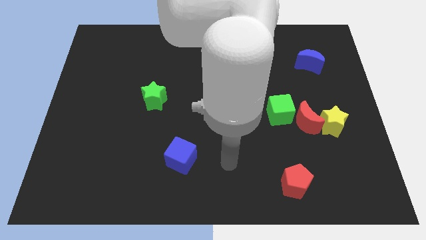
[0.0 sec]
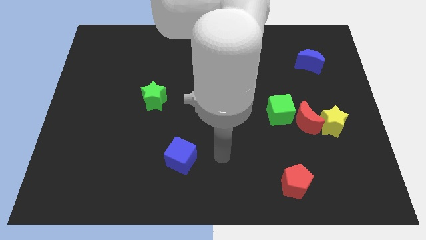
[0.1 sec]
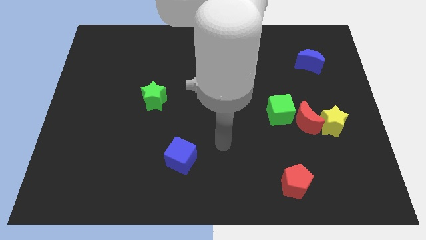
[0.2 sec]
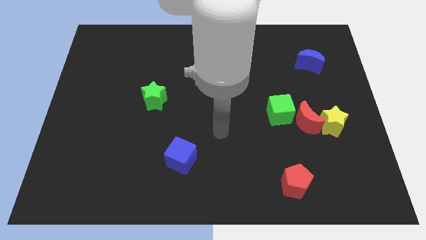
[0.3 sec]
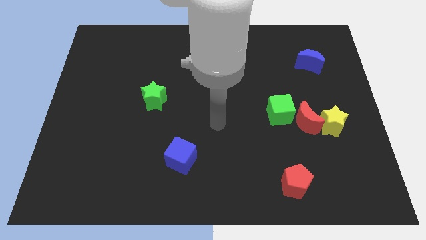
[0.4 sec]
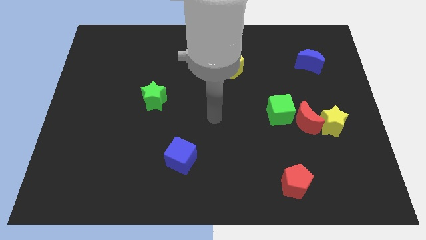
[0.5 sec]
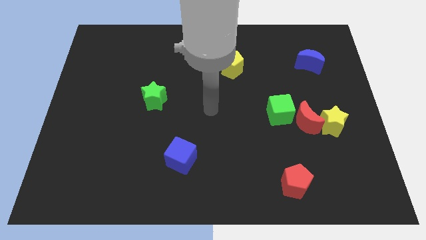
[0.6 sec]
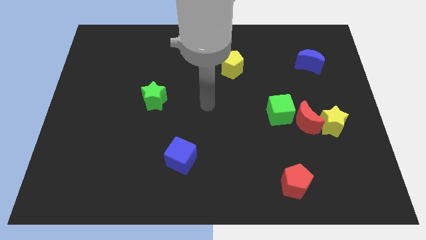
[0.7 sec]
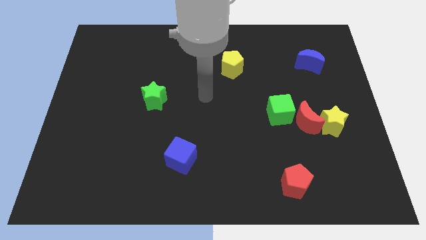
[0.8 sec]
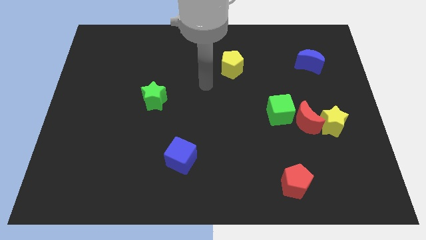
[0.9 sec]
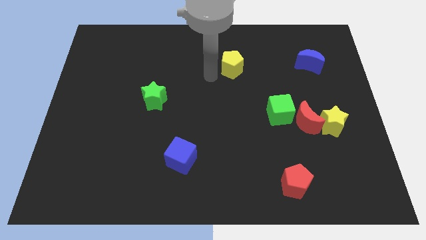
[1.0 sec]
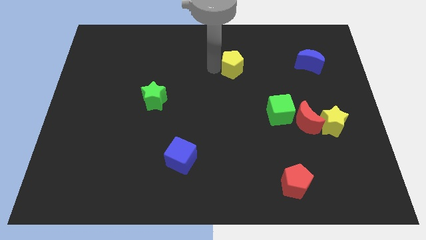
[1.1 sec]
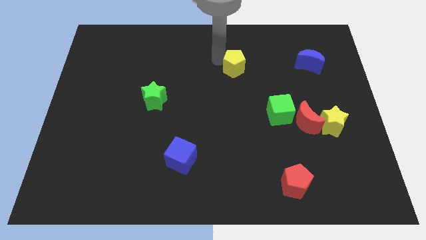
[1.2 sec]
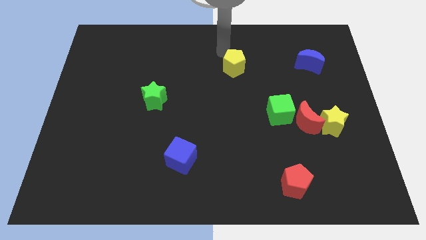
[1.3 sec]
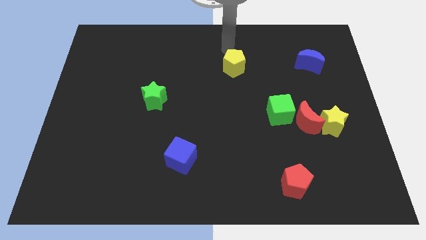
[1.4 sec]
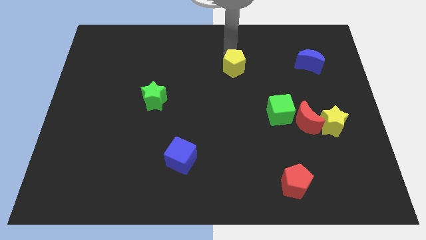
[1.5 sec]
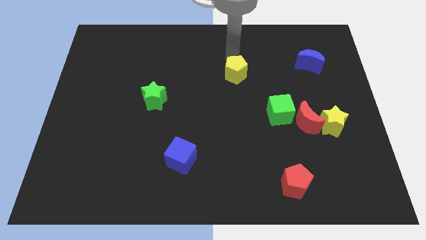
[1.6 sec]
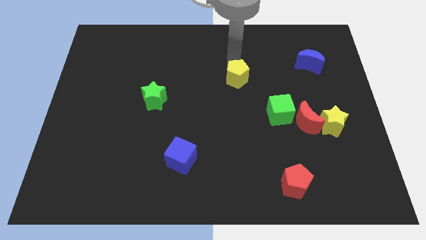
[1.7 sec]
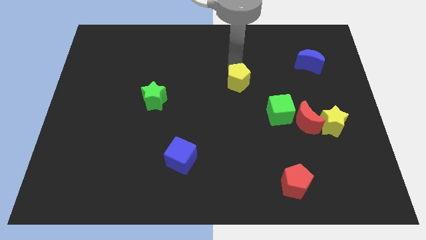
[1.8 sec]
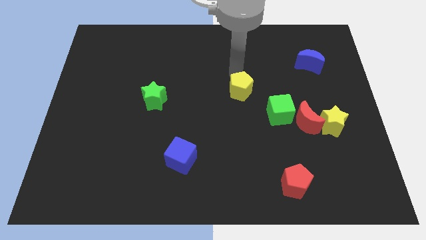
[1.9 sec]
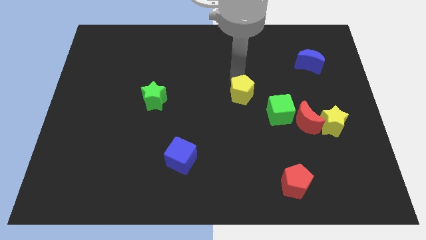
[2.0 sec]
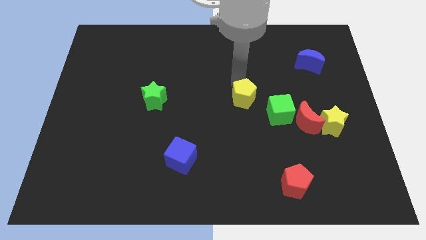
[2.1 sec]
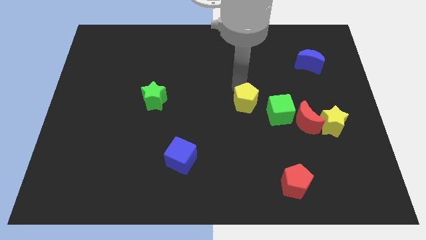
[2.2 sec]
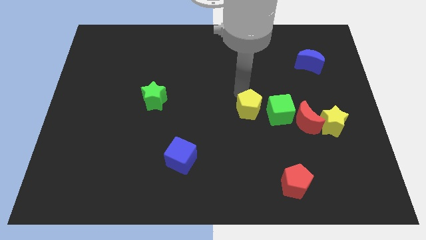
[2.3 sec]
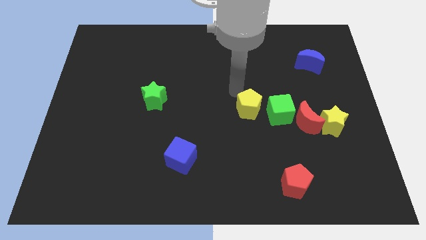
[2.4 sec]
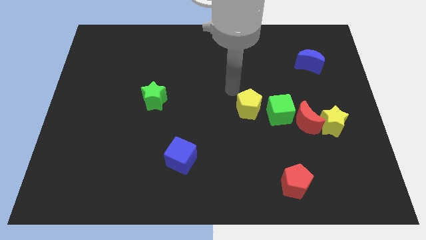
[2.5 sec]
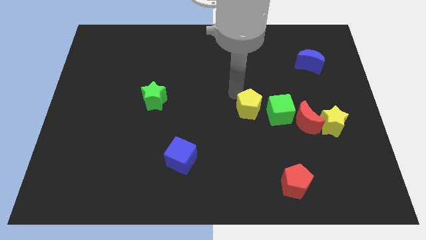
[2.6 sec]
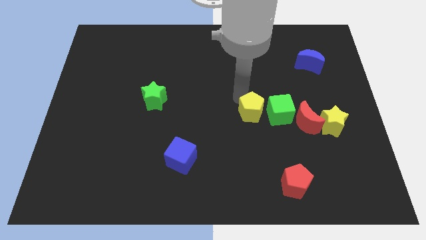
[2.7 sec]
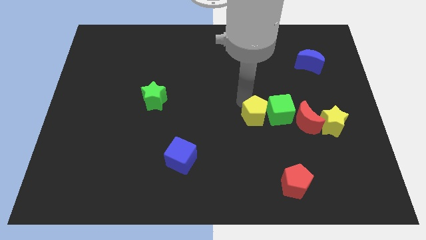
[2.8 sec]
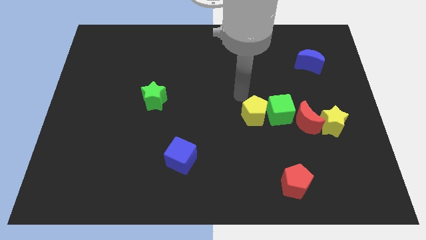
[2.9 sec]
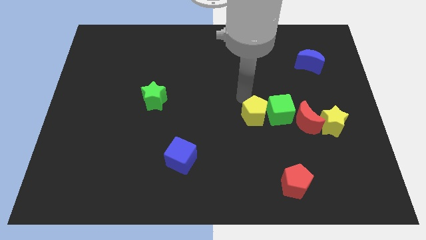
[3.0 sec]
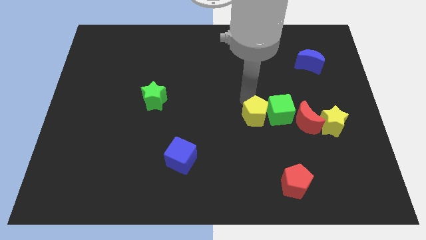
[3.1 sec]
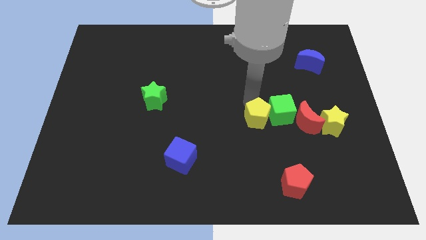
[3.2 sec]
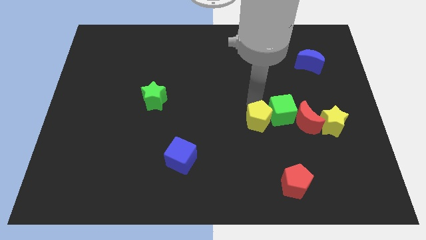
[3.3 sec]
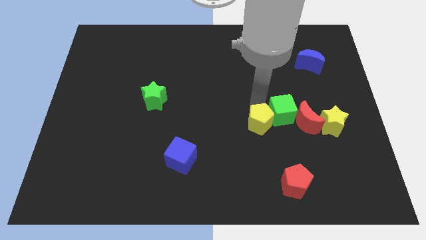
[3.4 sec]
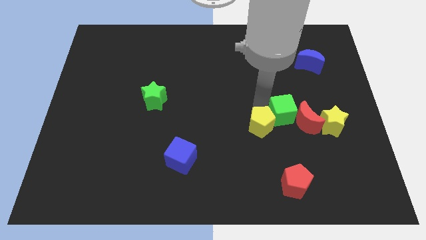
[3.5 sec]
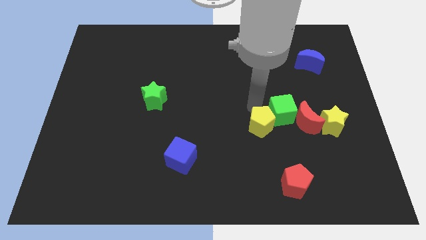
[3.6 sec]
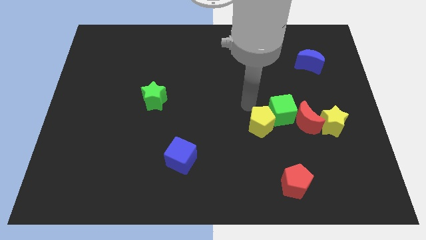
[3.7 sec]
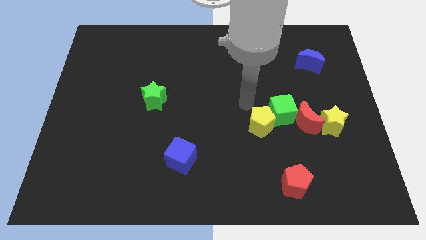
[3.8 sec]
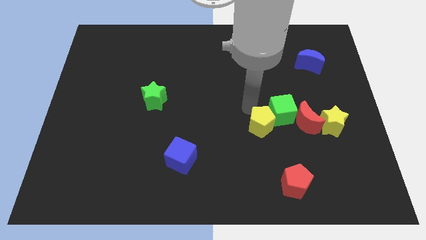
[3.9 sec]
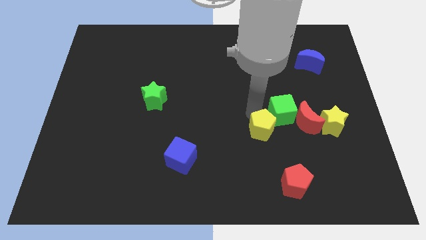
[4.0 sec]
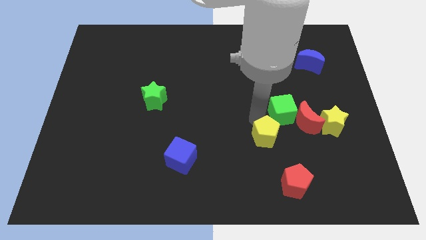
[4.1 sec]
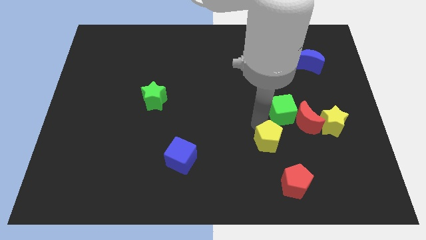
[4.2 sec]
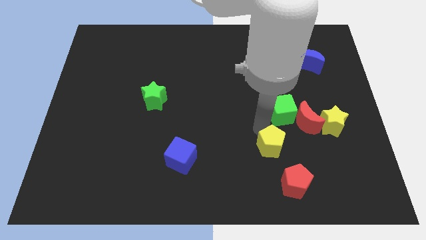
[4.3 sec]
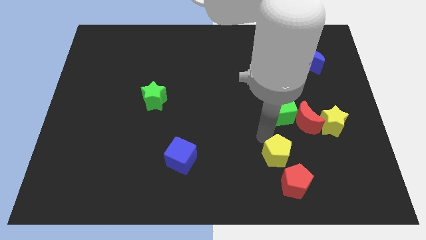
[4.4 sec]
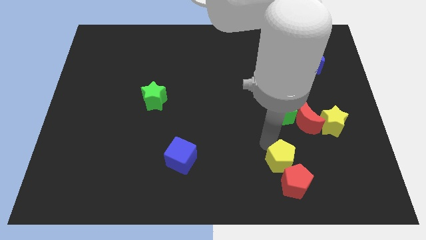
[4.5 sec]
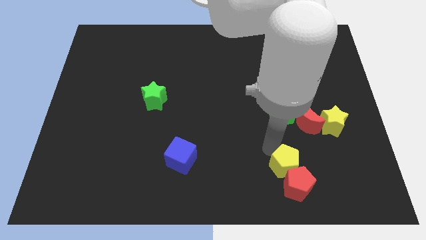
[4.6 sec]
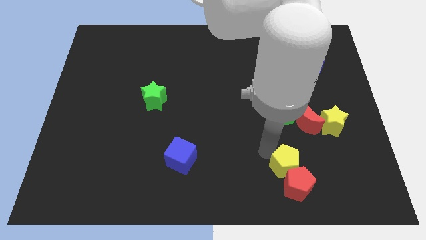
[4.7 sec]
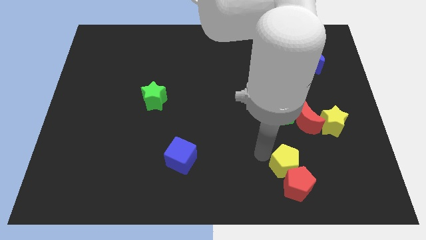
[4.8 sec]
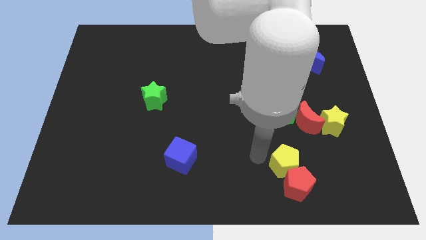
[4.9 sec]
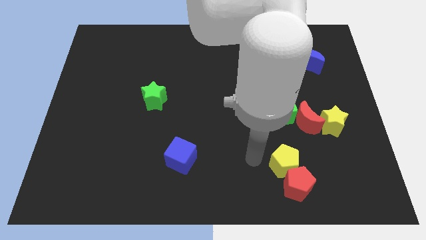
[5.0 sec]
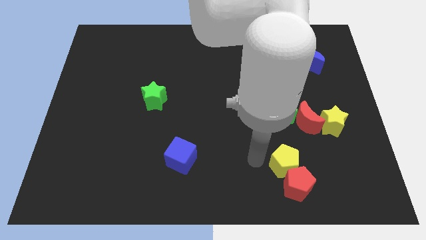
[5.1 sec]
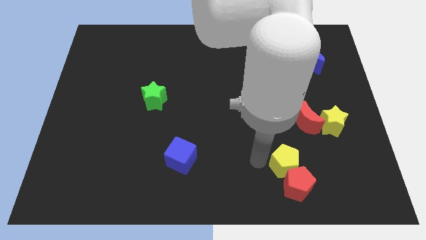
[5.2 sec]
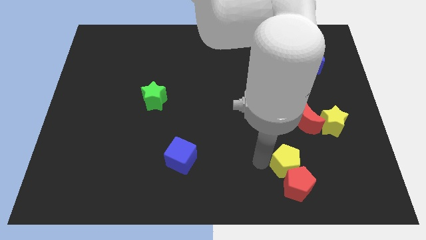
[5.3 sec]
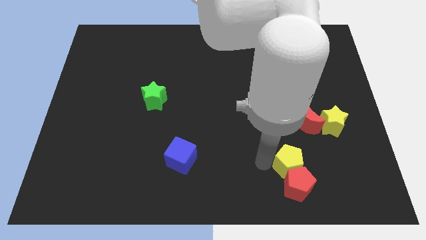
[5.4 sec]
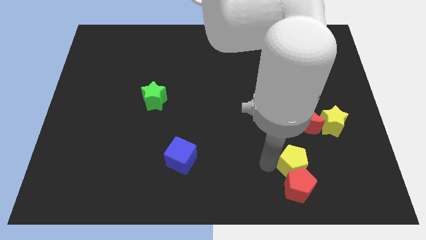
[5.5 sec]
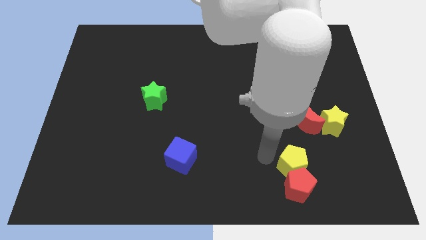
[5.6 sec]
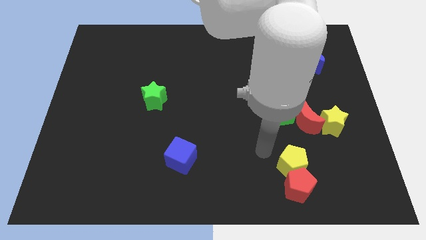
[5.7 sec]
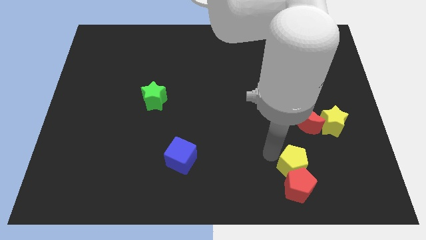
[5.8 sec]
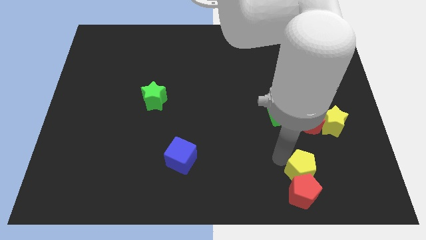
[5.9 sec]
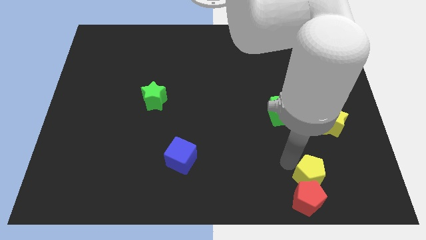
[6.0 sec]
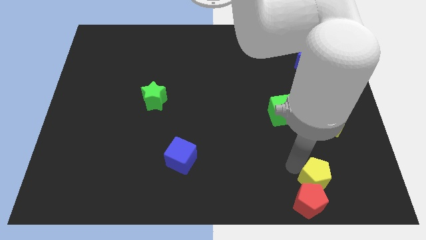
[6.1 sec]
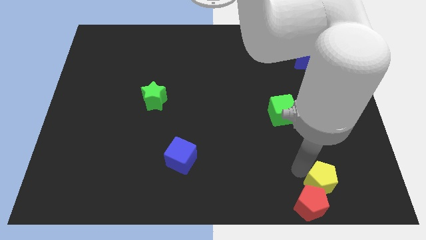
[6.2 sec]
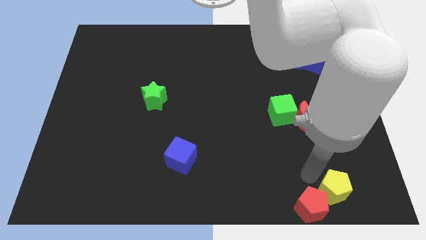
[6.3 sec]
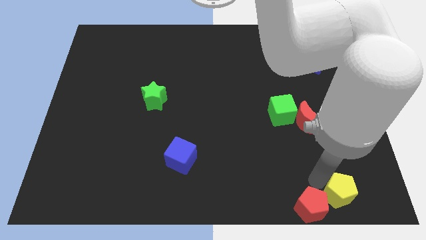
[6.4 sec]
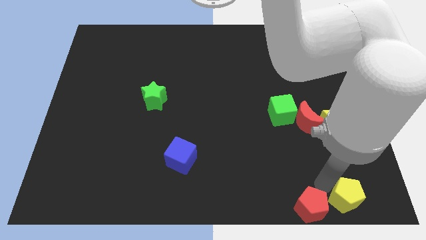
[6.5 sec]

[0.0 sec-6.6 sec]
put the yellow pentagon to the bottom right

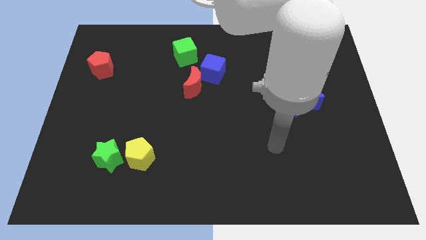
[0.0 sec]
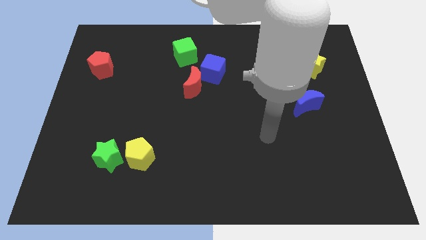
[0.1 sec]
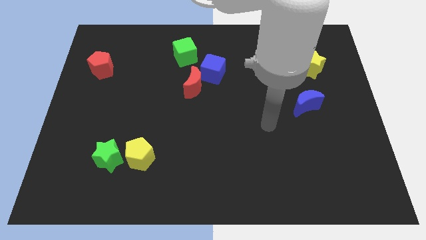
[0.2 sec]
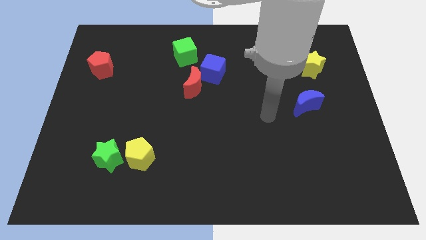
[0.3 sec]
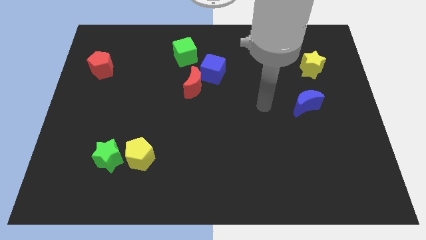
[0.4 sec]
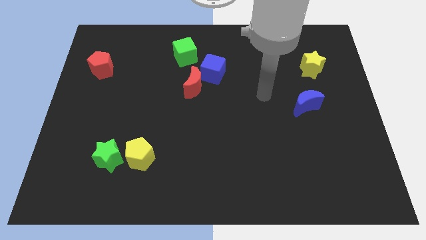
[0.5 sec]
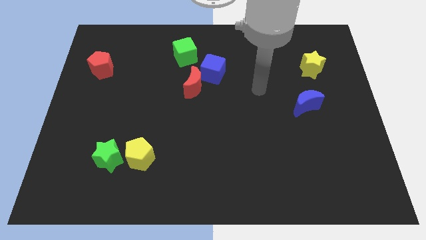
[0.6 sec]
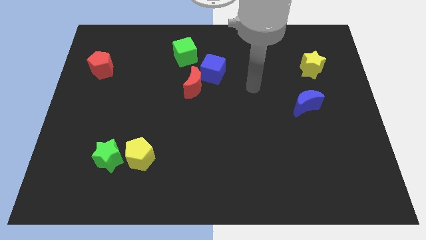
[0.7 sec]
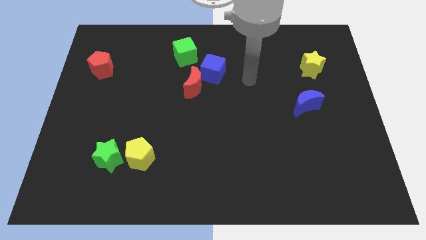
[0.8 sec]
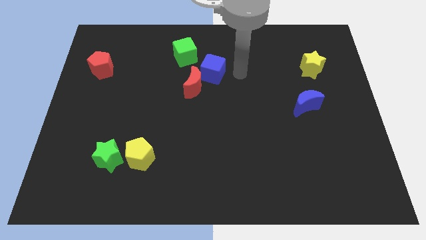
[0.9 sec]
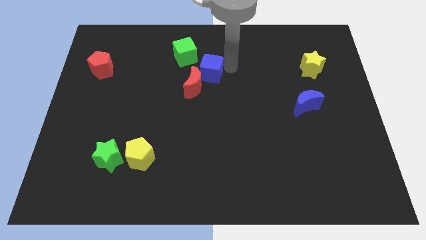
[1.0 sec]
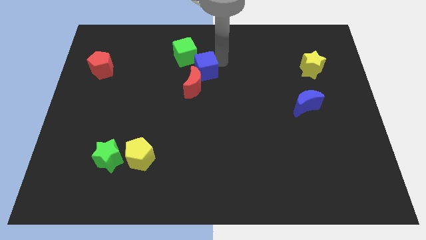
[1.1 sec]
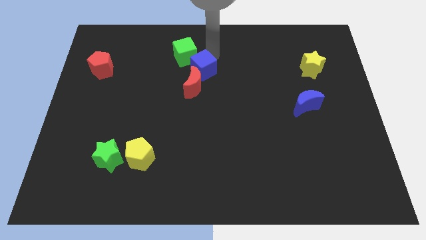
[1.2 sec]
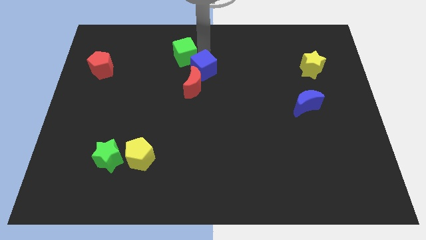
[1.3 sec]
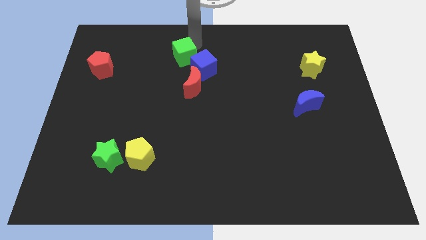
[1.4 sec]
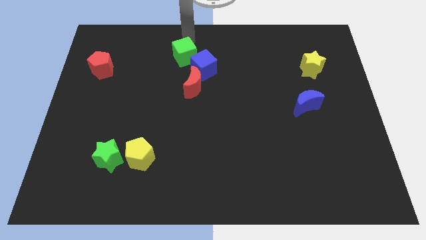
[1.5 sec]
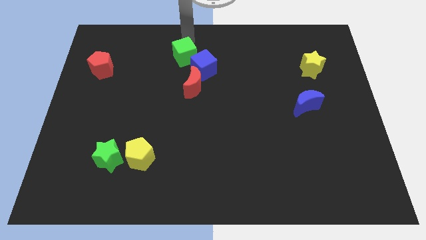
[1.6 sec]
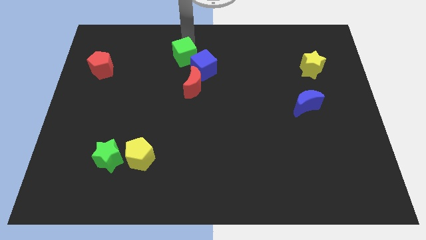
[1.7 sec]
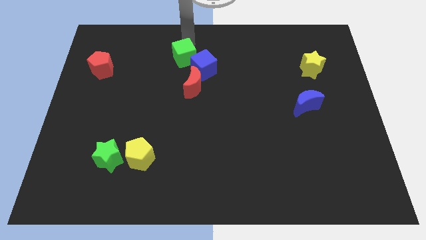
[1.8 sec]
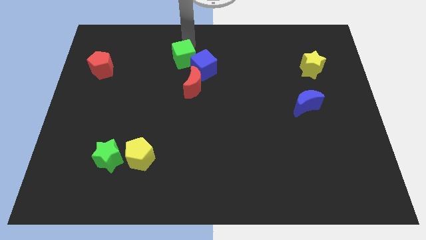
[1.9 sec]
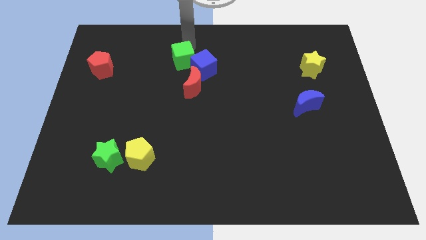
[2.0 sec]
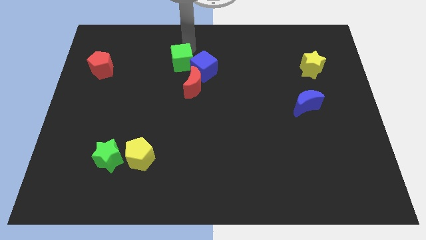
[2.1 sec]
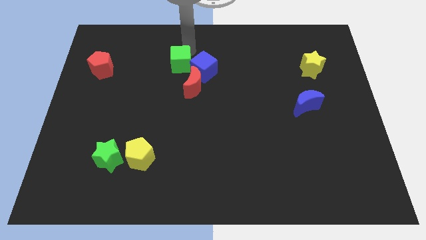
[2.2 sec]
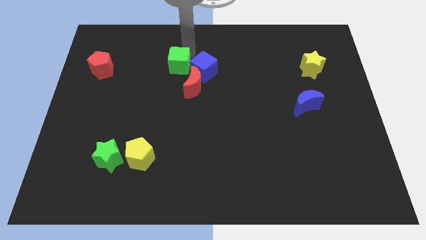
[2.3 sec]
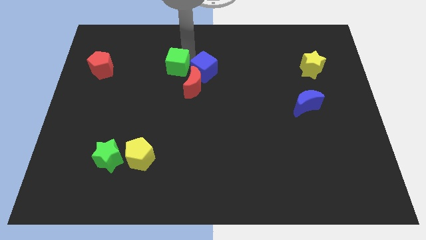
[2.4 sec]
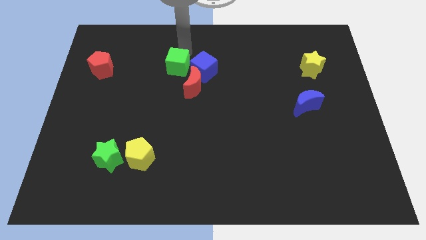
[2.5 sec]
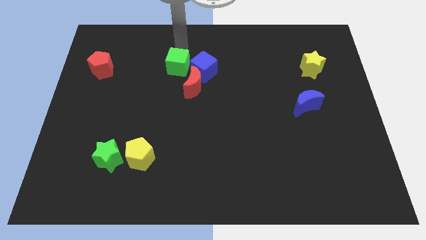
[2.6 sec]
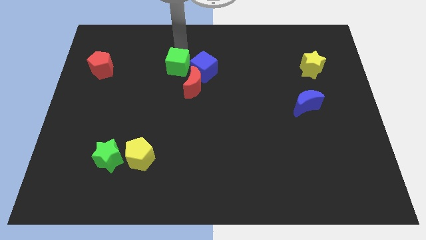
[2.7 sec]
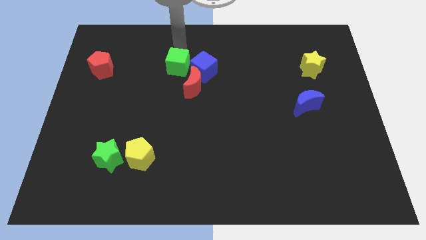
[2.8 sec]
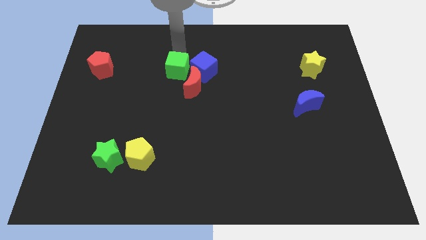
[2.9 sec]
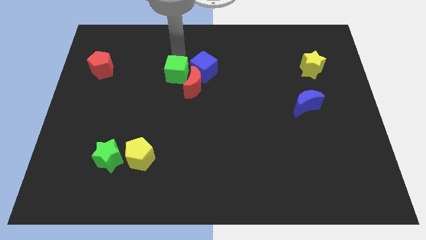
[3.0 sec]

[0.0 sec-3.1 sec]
slide the green cube to the middle
